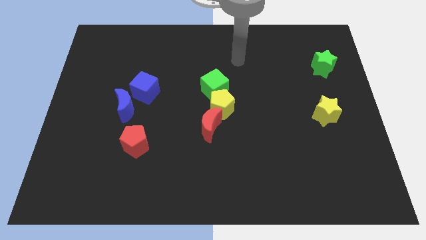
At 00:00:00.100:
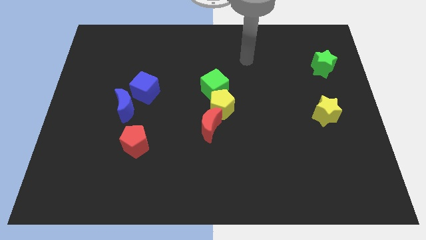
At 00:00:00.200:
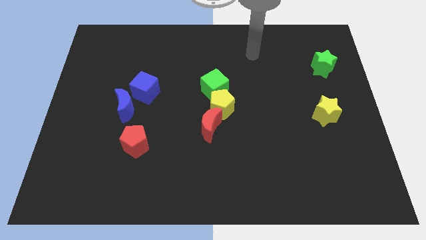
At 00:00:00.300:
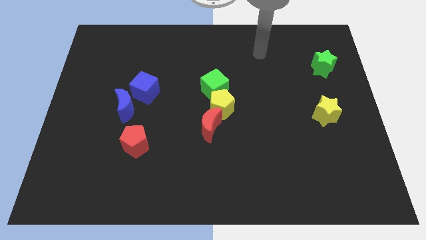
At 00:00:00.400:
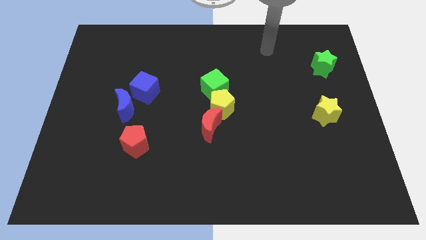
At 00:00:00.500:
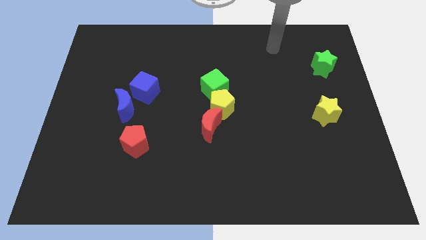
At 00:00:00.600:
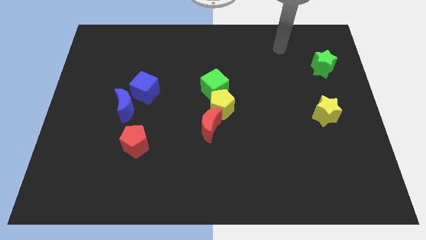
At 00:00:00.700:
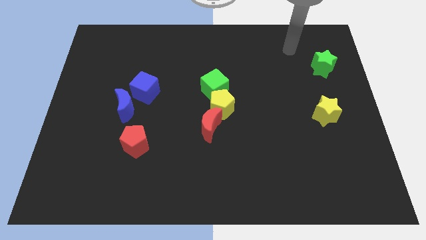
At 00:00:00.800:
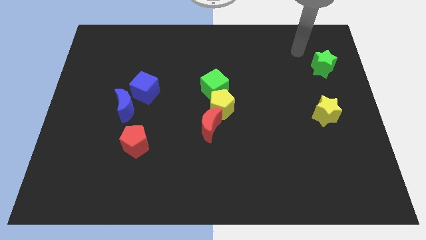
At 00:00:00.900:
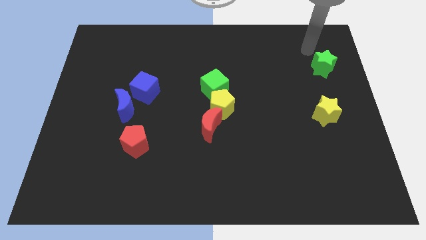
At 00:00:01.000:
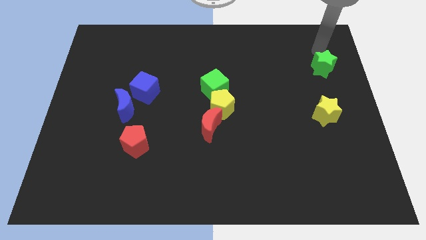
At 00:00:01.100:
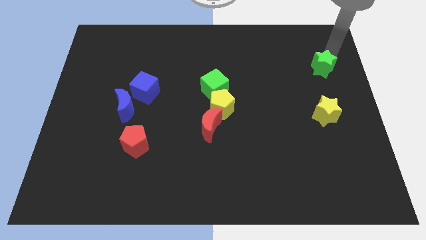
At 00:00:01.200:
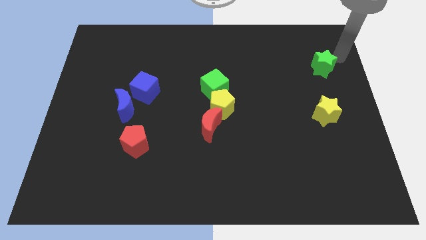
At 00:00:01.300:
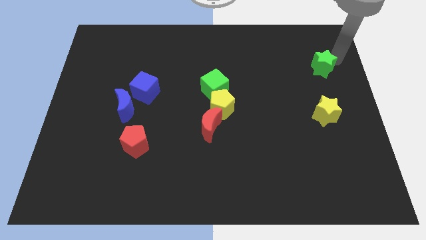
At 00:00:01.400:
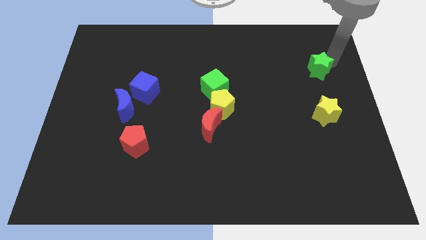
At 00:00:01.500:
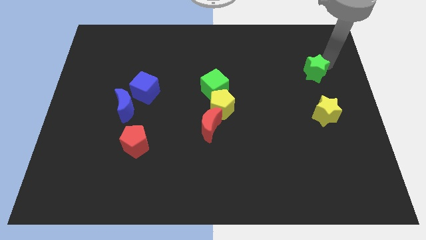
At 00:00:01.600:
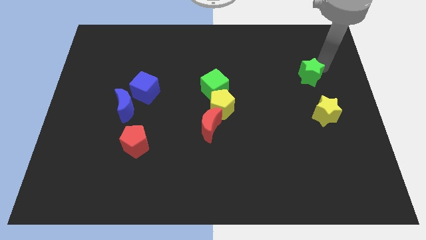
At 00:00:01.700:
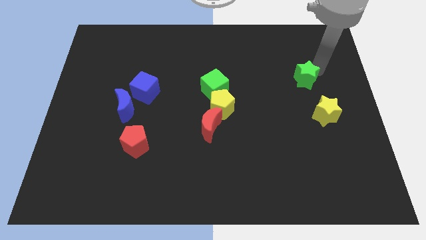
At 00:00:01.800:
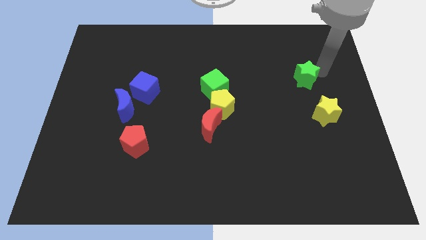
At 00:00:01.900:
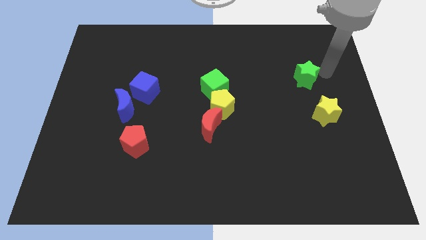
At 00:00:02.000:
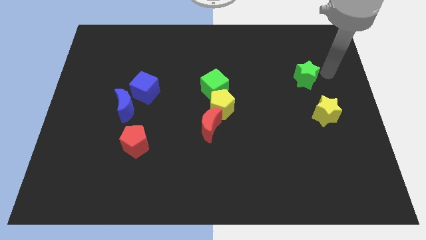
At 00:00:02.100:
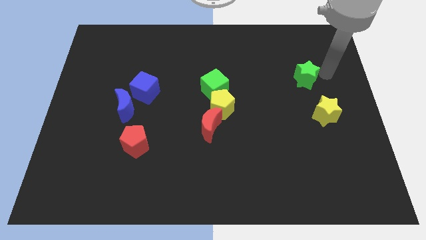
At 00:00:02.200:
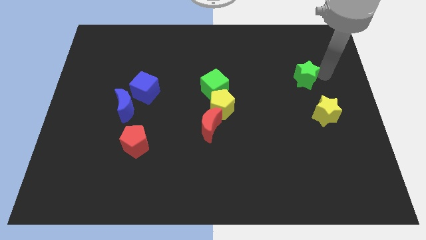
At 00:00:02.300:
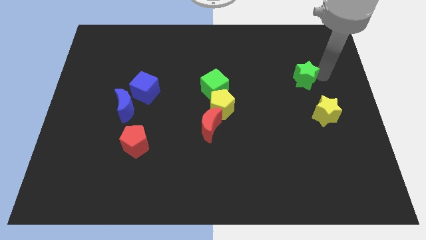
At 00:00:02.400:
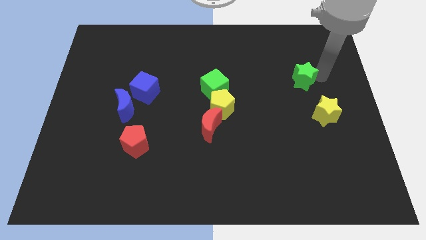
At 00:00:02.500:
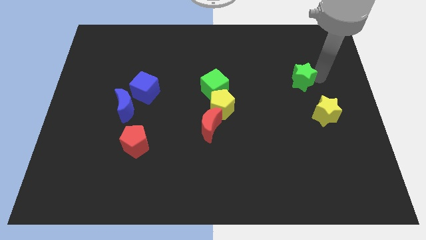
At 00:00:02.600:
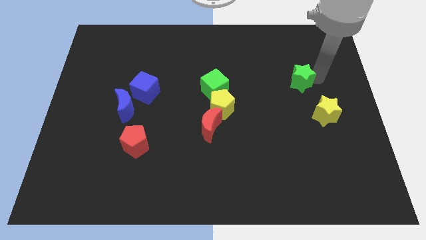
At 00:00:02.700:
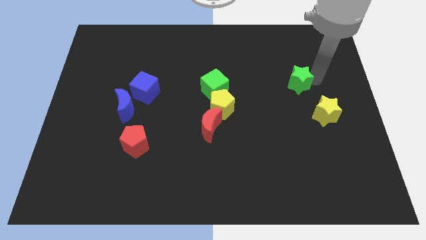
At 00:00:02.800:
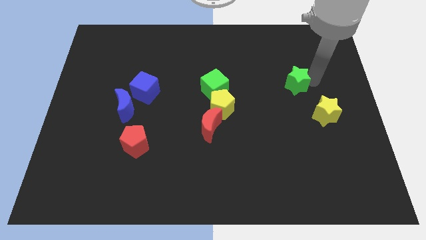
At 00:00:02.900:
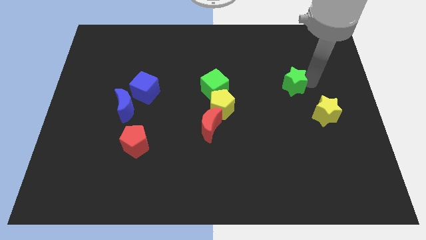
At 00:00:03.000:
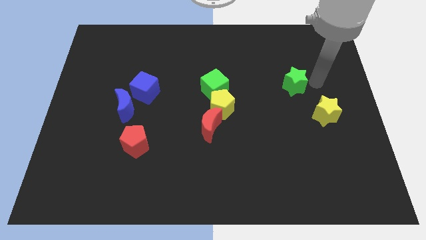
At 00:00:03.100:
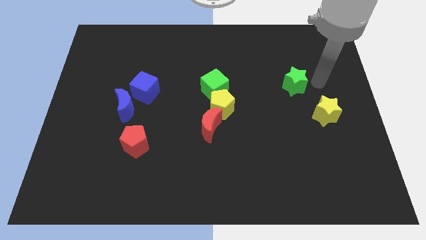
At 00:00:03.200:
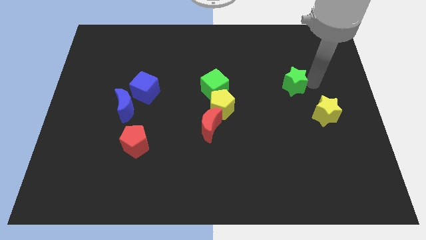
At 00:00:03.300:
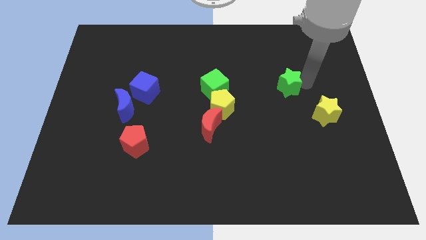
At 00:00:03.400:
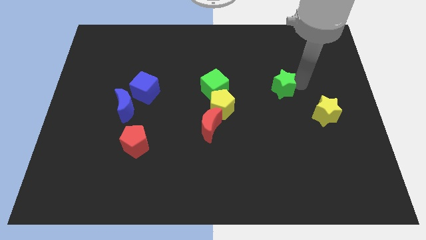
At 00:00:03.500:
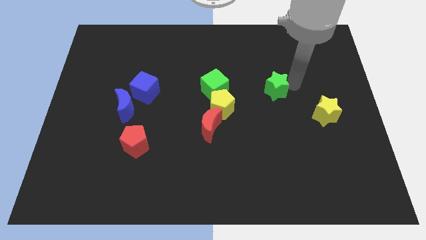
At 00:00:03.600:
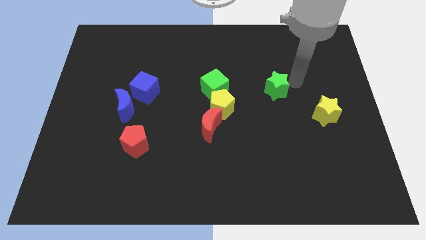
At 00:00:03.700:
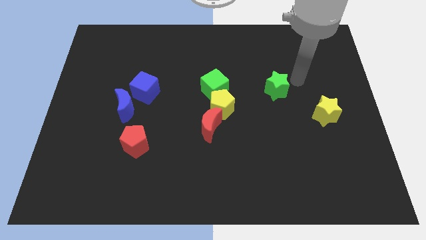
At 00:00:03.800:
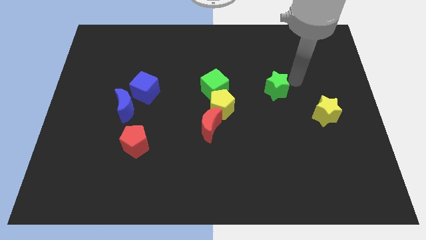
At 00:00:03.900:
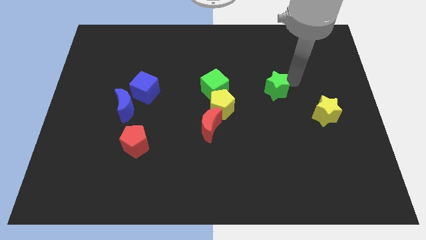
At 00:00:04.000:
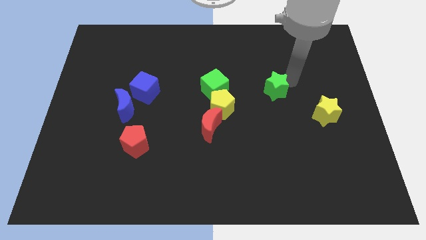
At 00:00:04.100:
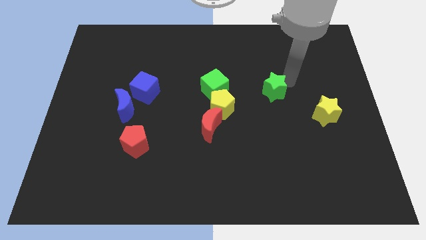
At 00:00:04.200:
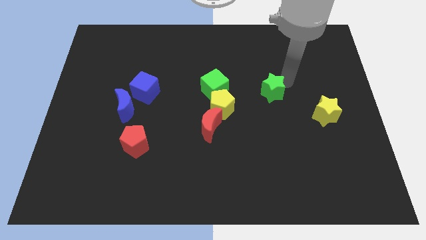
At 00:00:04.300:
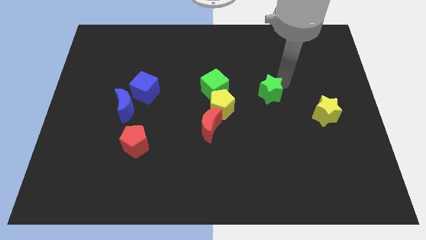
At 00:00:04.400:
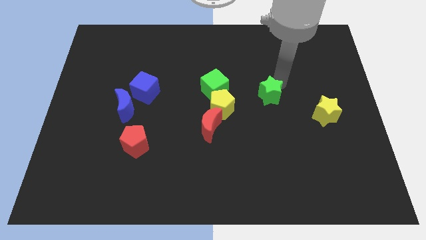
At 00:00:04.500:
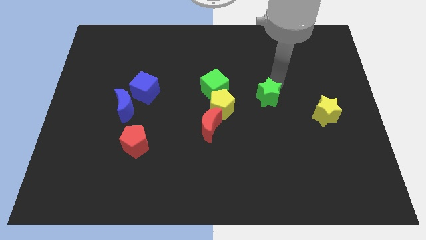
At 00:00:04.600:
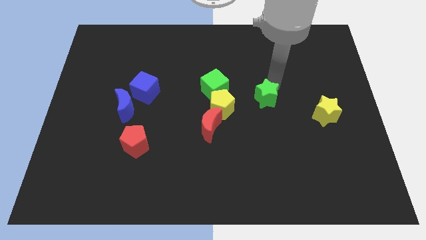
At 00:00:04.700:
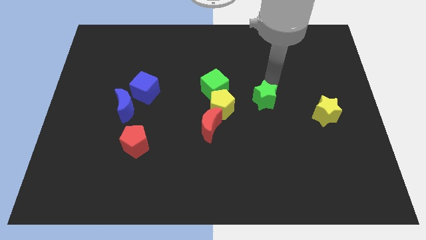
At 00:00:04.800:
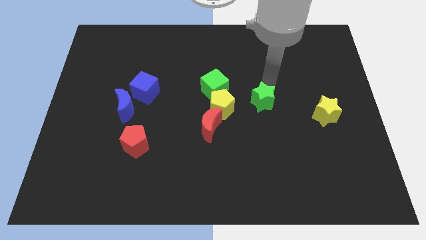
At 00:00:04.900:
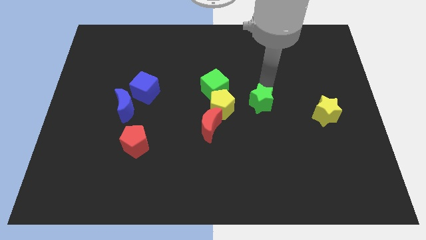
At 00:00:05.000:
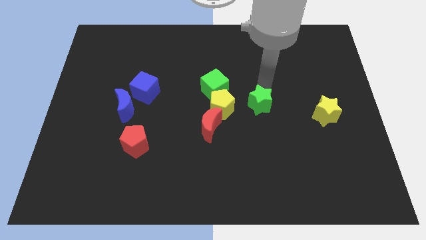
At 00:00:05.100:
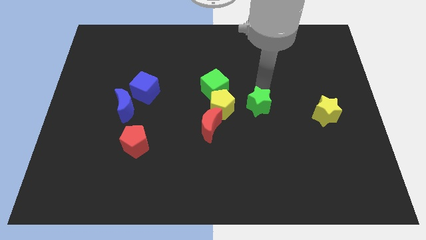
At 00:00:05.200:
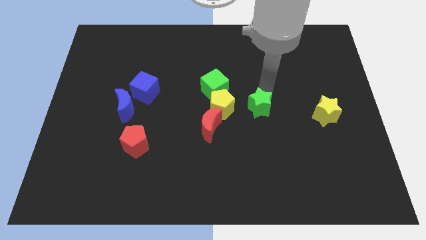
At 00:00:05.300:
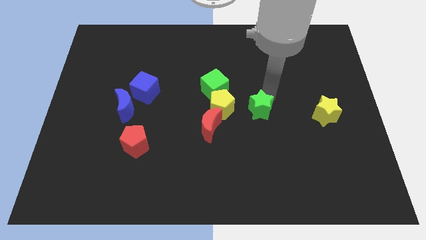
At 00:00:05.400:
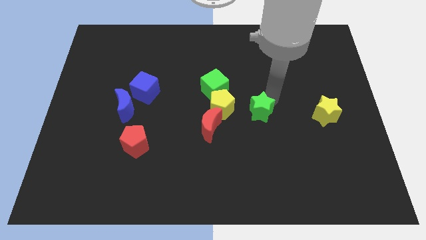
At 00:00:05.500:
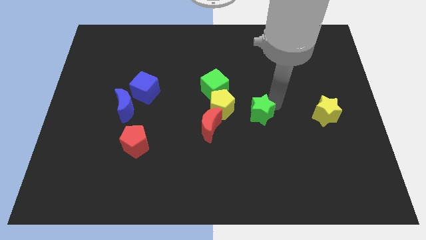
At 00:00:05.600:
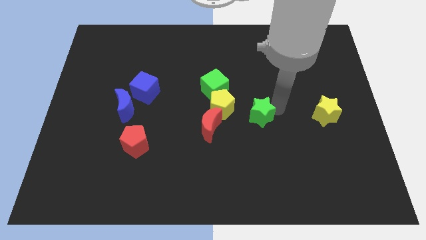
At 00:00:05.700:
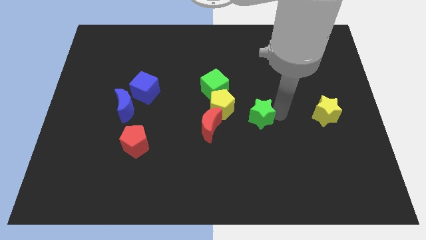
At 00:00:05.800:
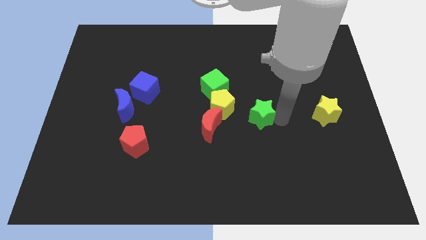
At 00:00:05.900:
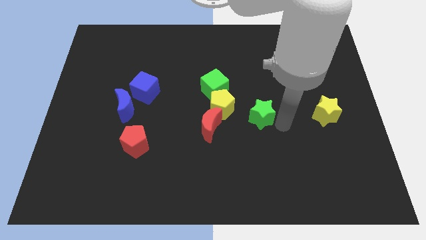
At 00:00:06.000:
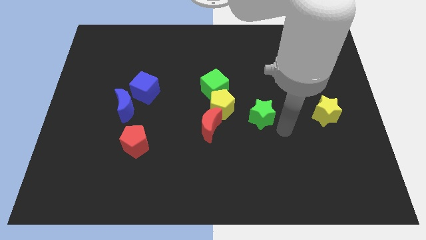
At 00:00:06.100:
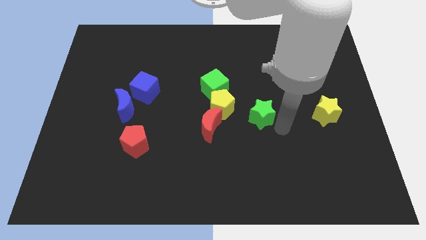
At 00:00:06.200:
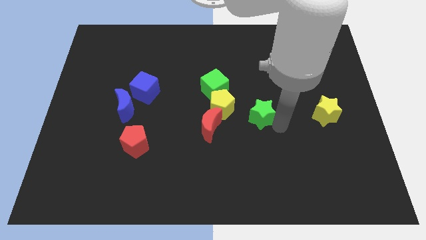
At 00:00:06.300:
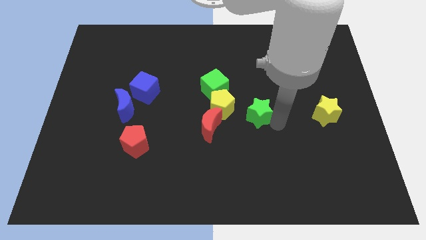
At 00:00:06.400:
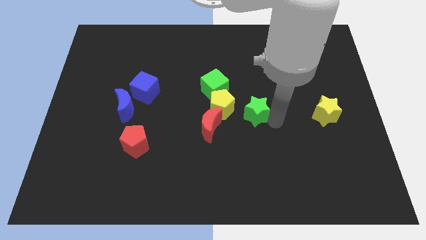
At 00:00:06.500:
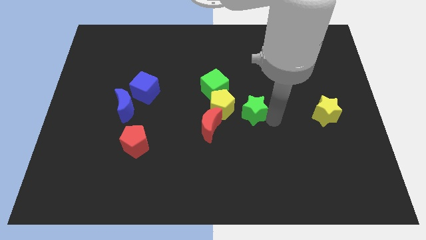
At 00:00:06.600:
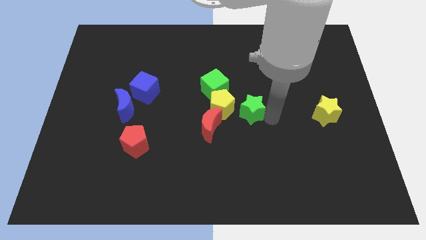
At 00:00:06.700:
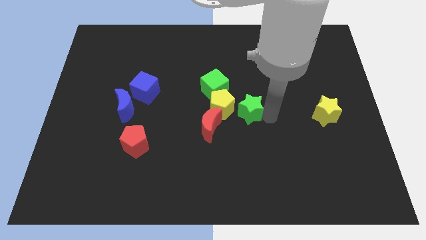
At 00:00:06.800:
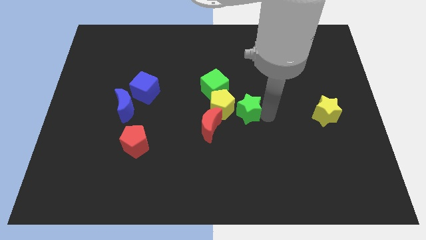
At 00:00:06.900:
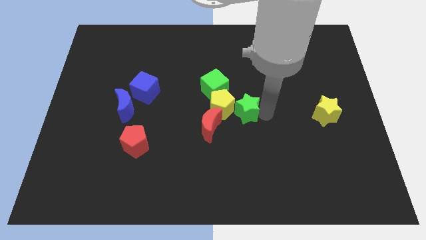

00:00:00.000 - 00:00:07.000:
put the green star to the yellow pentagon
